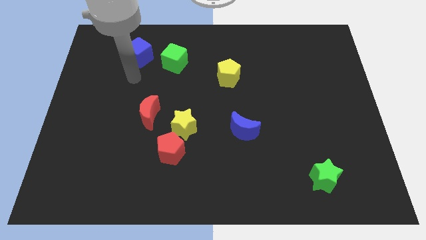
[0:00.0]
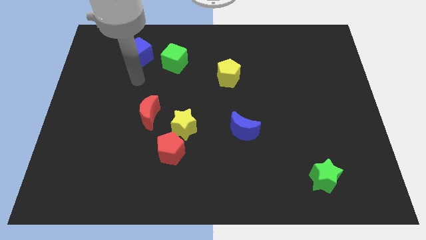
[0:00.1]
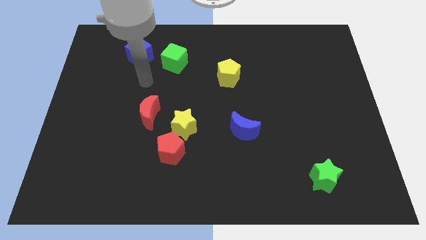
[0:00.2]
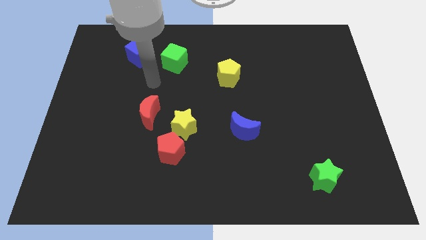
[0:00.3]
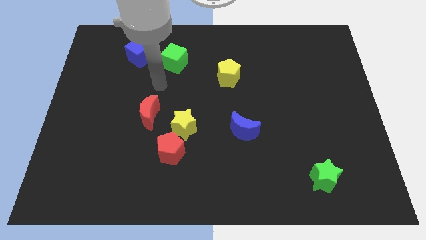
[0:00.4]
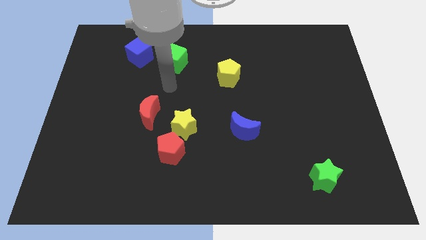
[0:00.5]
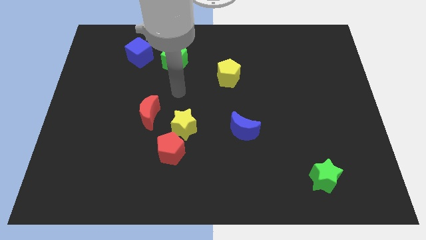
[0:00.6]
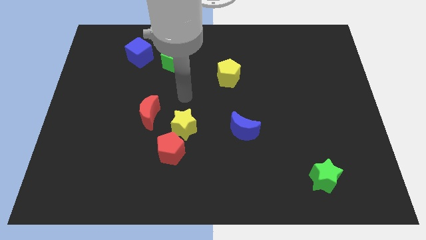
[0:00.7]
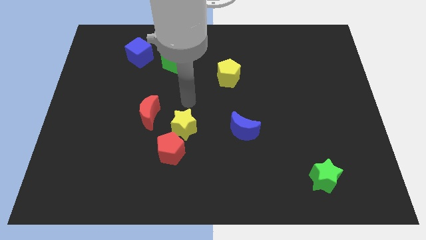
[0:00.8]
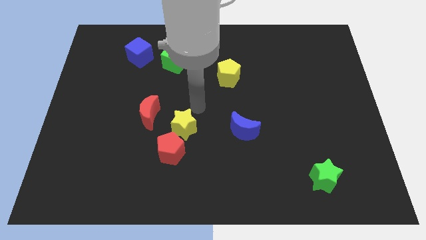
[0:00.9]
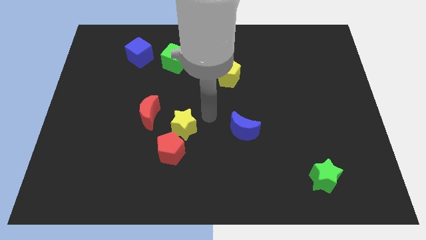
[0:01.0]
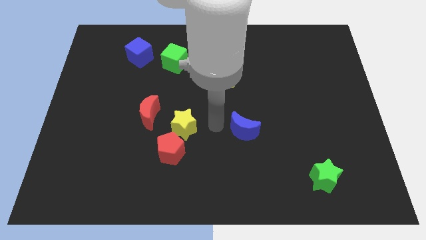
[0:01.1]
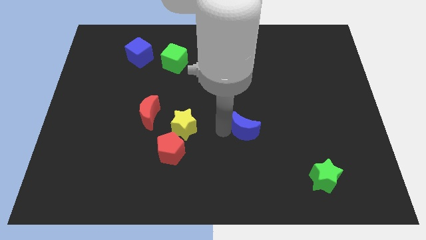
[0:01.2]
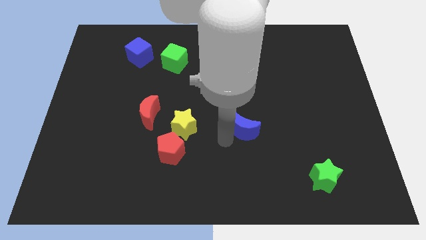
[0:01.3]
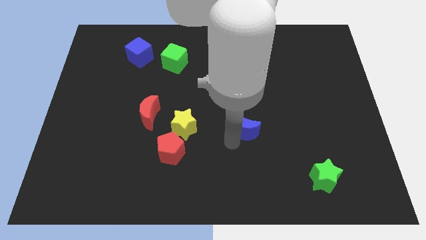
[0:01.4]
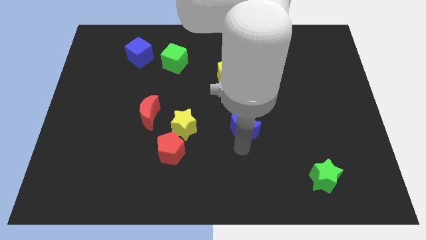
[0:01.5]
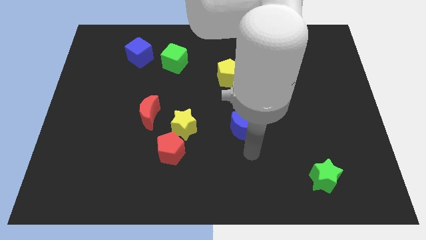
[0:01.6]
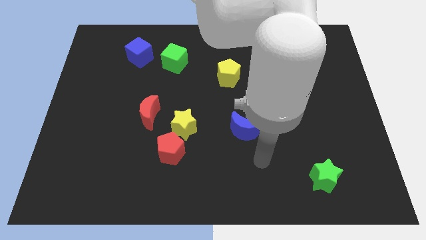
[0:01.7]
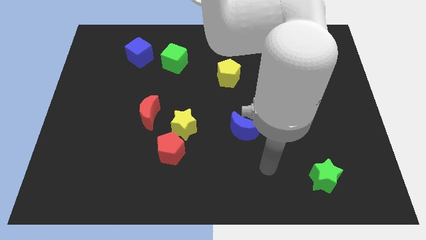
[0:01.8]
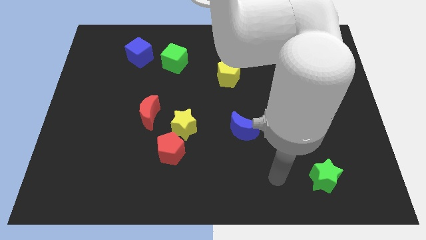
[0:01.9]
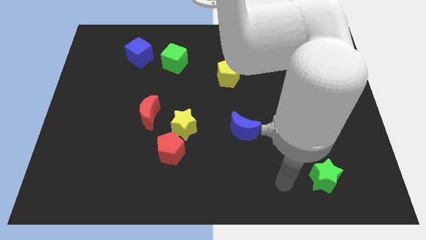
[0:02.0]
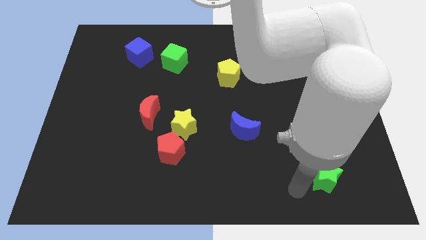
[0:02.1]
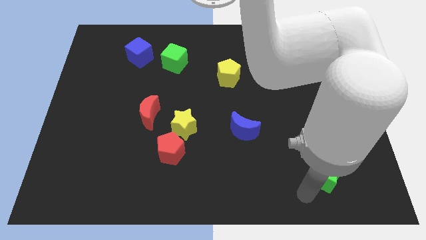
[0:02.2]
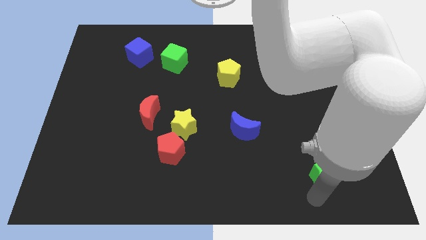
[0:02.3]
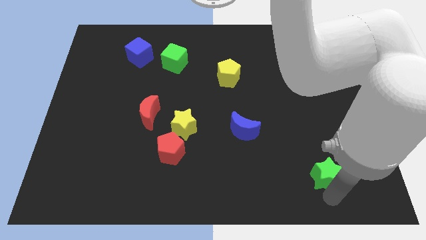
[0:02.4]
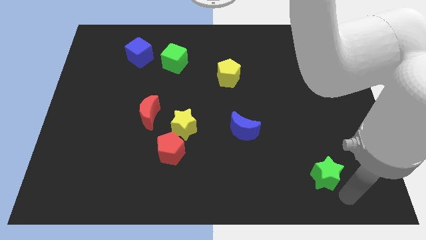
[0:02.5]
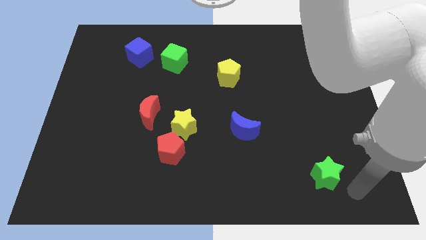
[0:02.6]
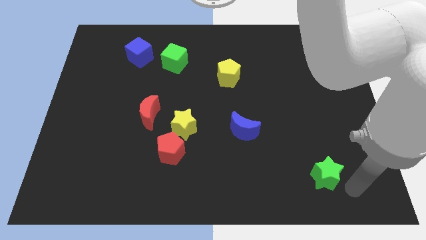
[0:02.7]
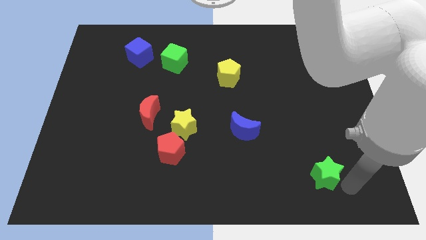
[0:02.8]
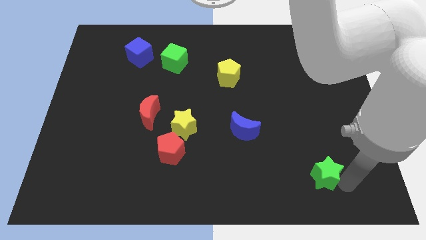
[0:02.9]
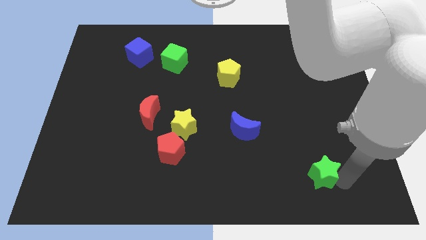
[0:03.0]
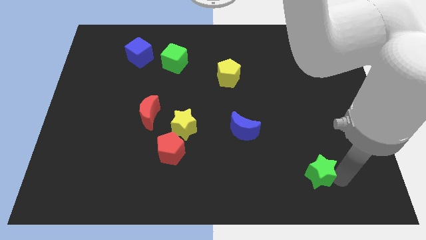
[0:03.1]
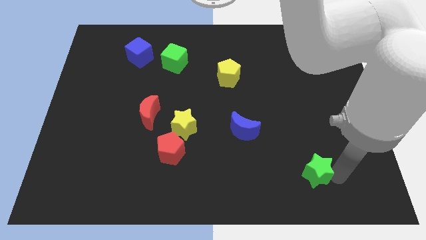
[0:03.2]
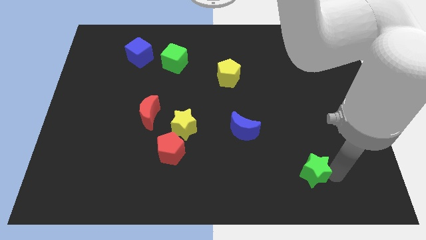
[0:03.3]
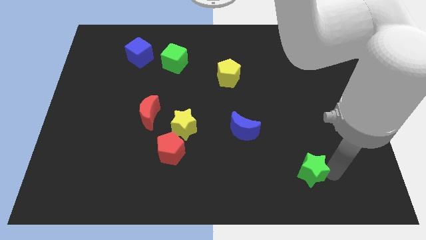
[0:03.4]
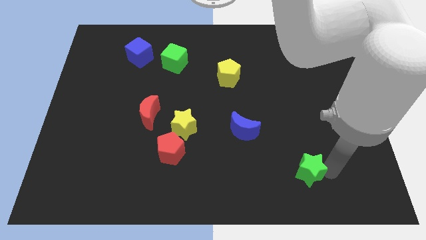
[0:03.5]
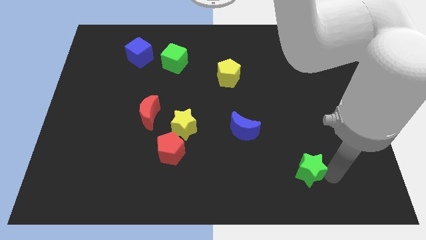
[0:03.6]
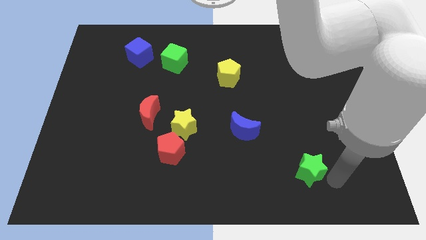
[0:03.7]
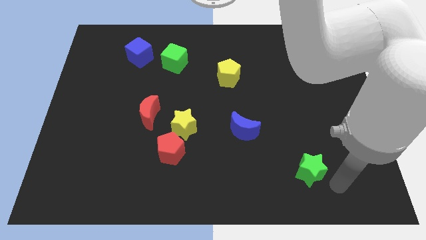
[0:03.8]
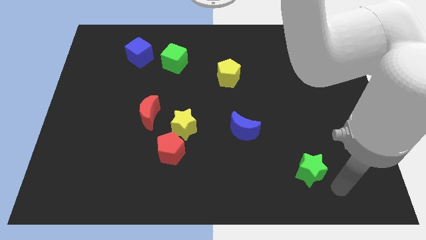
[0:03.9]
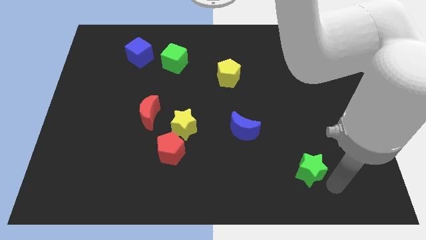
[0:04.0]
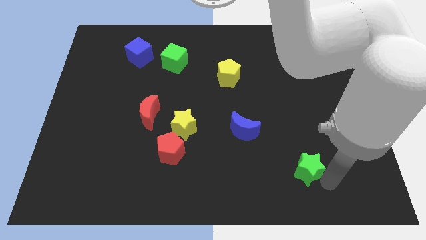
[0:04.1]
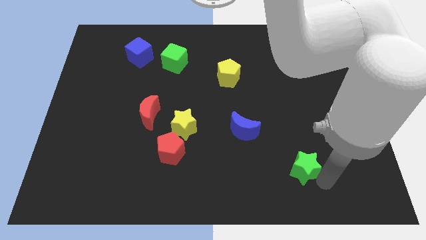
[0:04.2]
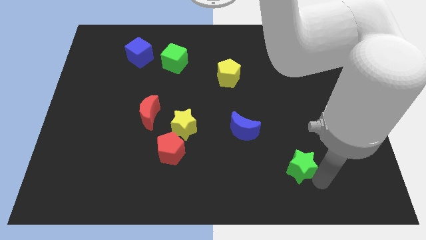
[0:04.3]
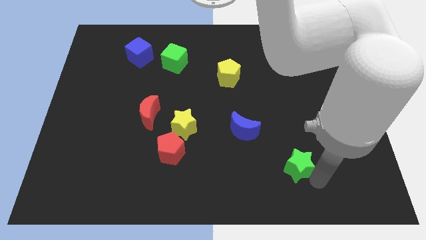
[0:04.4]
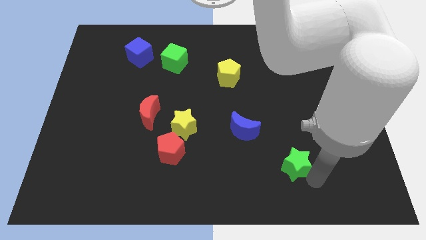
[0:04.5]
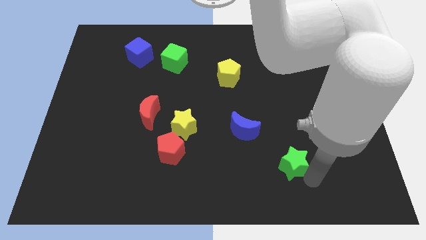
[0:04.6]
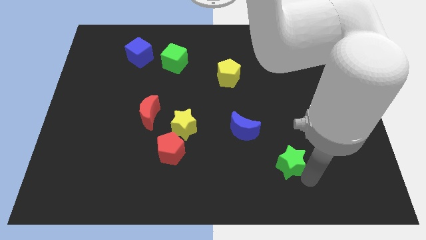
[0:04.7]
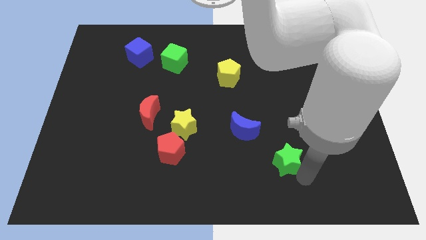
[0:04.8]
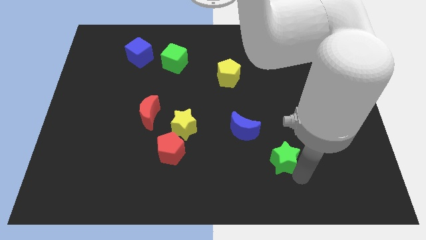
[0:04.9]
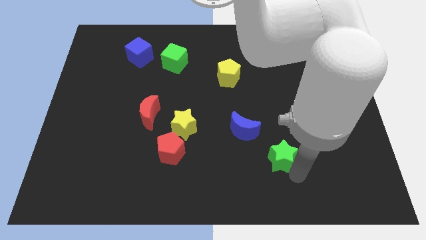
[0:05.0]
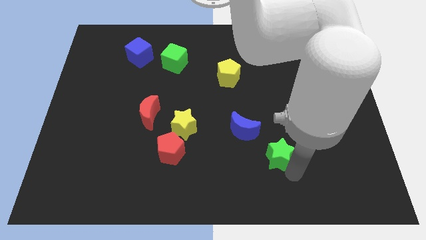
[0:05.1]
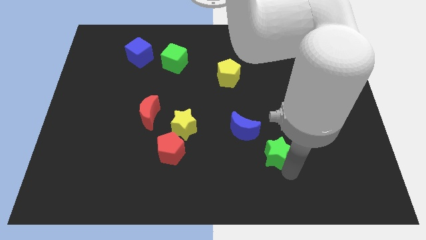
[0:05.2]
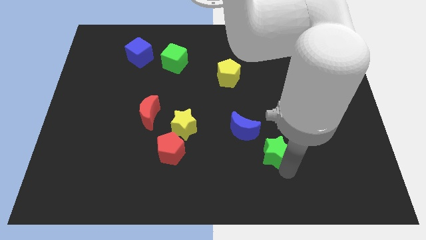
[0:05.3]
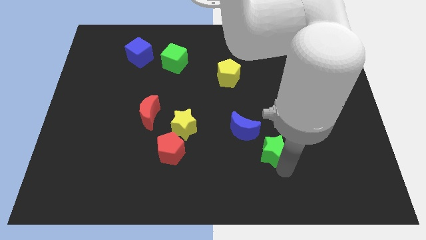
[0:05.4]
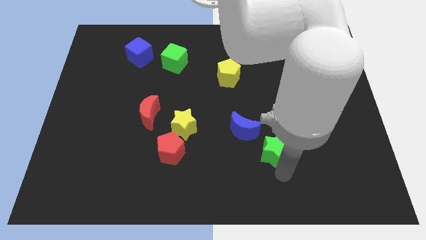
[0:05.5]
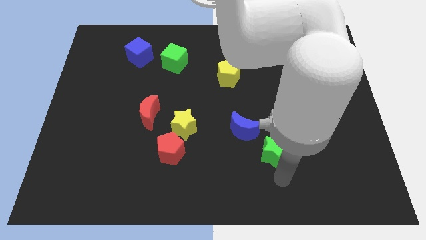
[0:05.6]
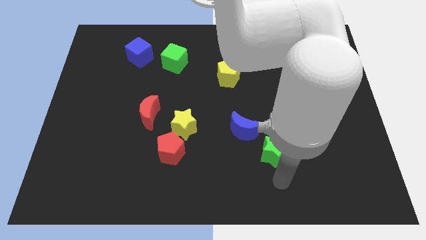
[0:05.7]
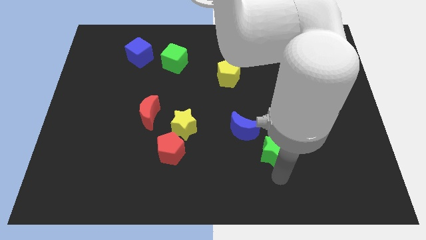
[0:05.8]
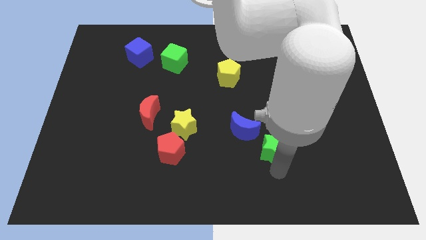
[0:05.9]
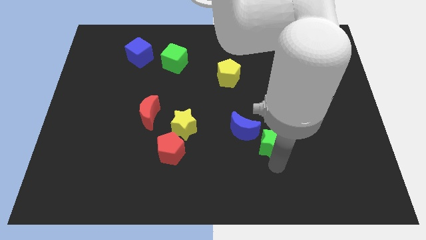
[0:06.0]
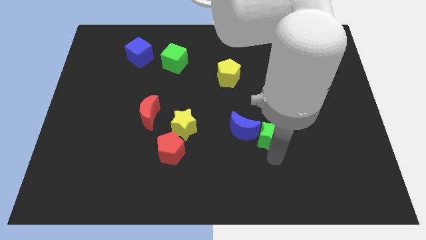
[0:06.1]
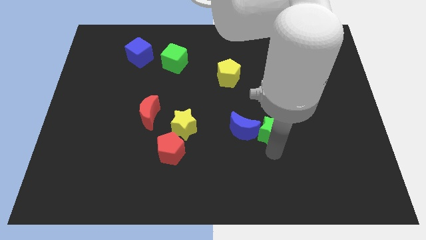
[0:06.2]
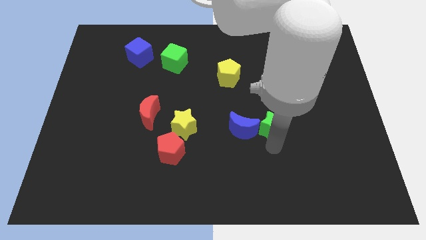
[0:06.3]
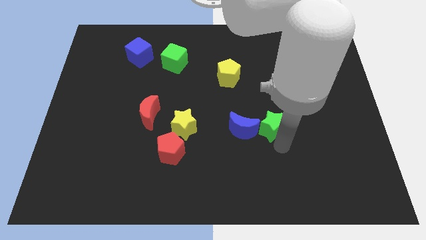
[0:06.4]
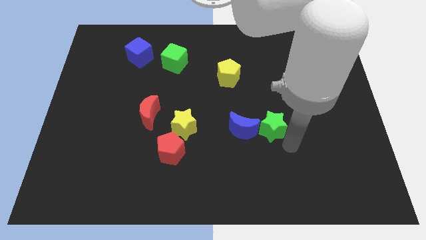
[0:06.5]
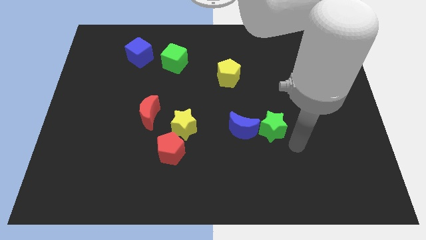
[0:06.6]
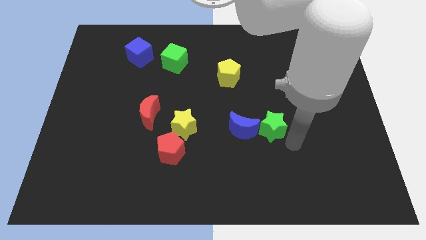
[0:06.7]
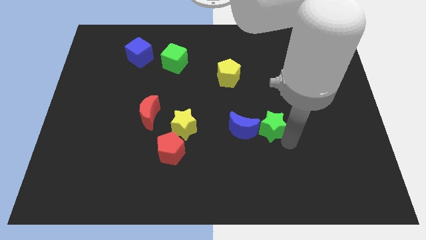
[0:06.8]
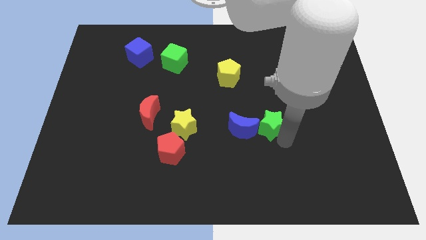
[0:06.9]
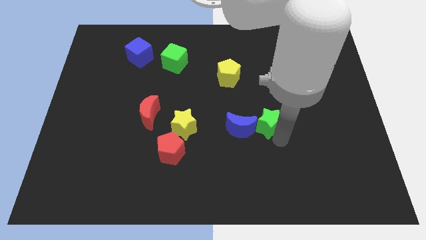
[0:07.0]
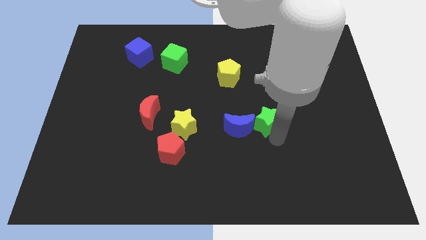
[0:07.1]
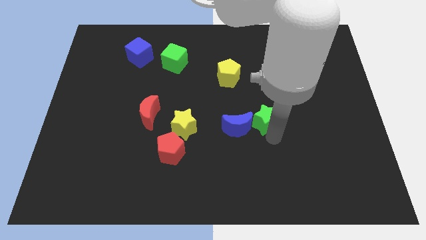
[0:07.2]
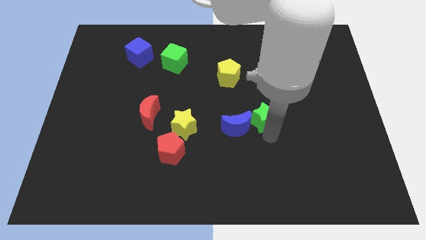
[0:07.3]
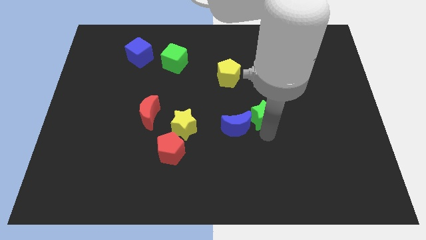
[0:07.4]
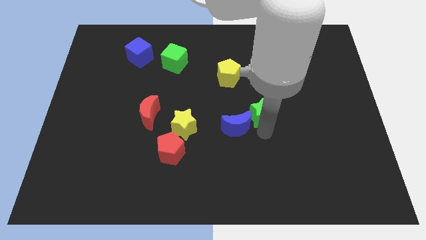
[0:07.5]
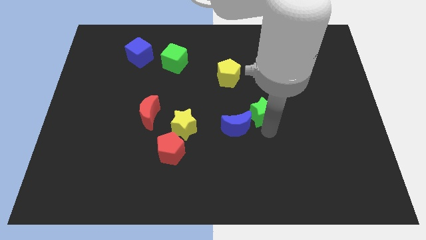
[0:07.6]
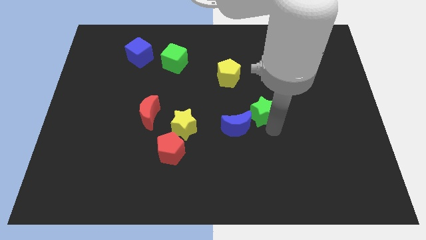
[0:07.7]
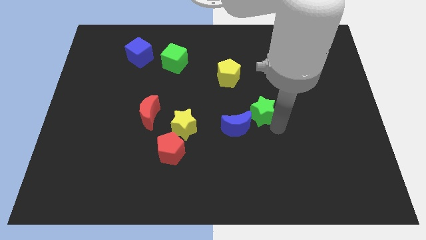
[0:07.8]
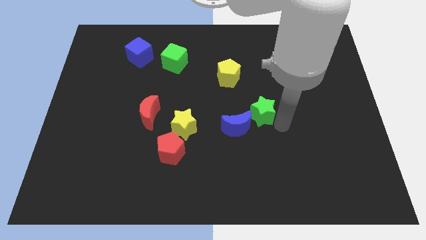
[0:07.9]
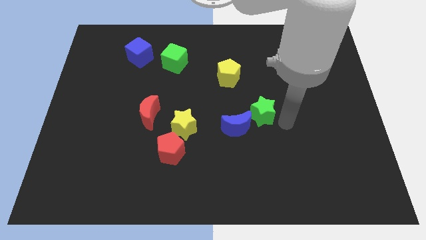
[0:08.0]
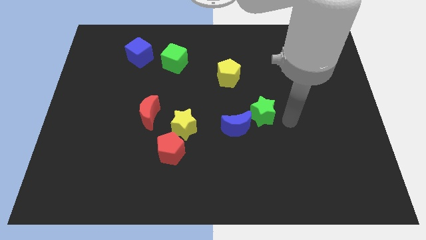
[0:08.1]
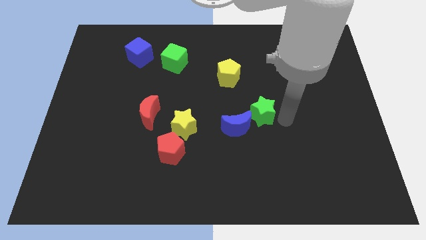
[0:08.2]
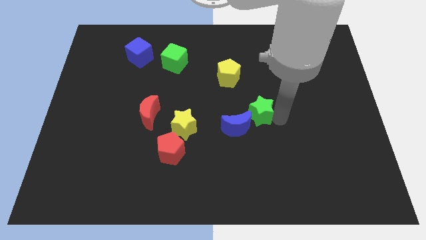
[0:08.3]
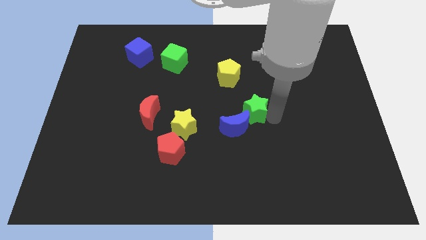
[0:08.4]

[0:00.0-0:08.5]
slide the green star upwards and to the left diagonally
